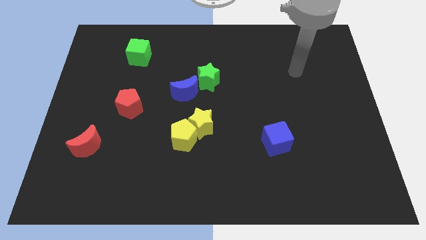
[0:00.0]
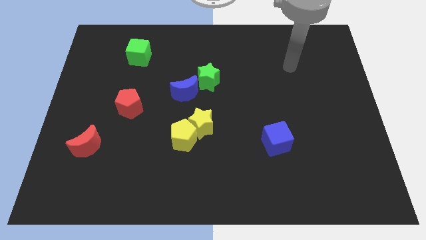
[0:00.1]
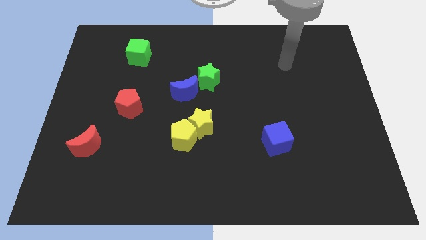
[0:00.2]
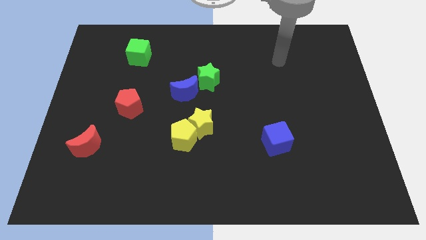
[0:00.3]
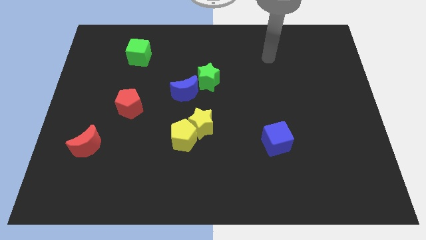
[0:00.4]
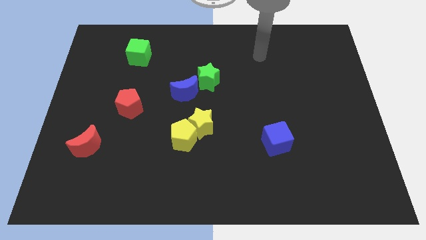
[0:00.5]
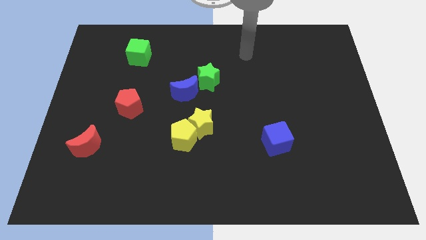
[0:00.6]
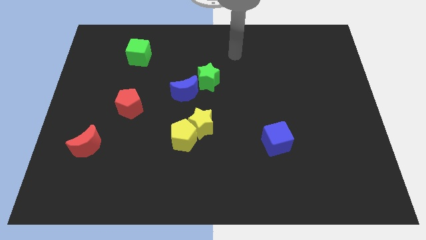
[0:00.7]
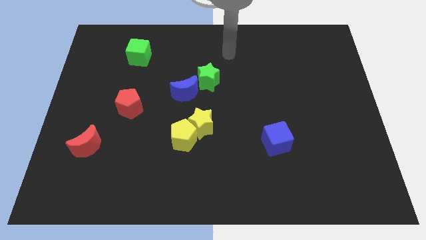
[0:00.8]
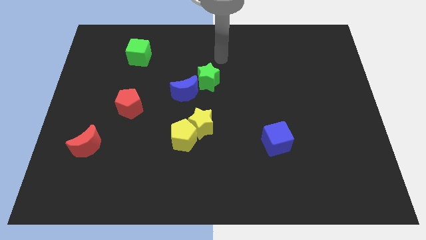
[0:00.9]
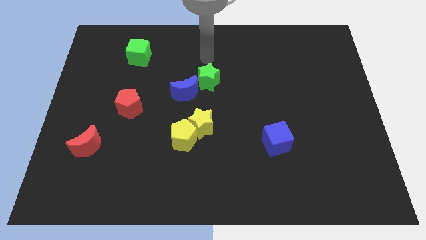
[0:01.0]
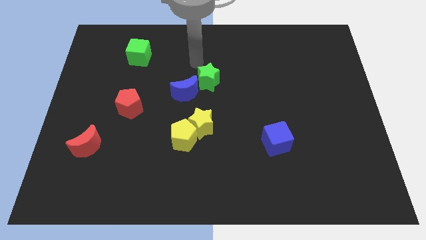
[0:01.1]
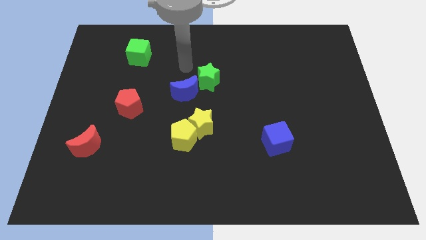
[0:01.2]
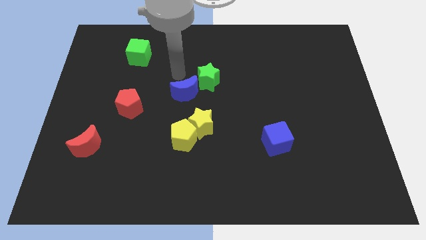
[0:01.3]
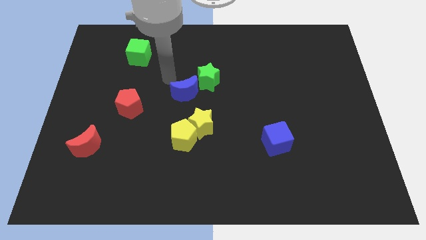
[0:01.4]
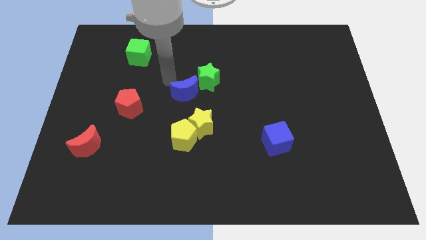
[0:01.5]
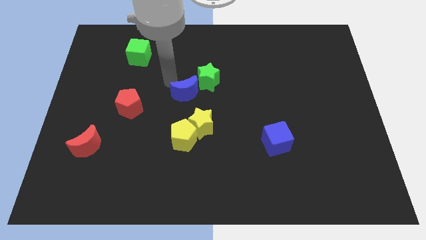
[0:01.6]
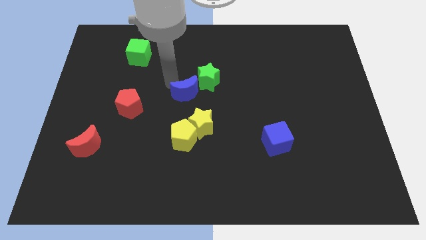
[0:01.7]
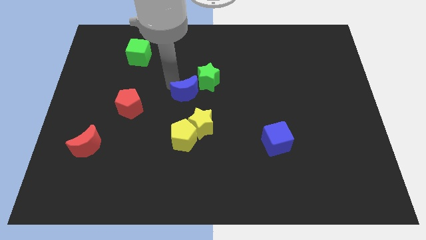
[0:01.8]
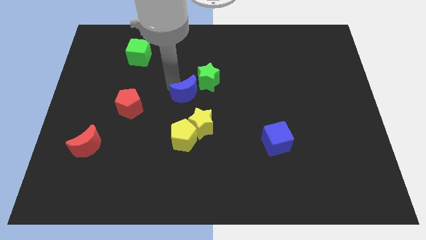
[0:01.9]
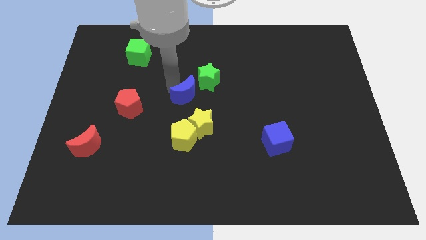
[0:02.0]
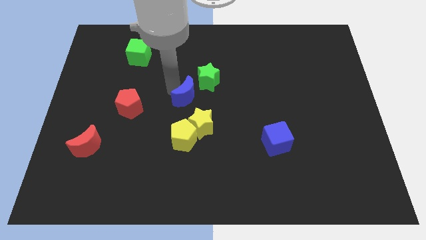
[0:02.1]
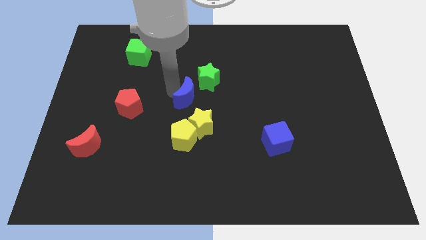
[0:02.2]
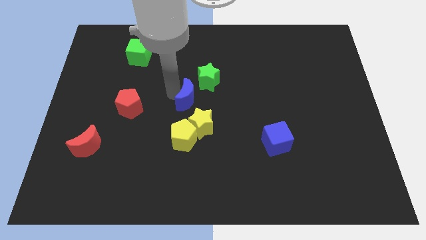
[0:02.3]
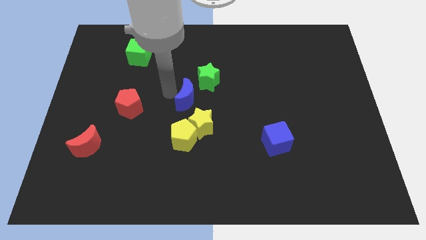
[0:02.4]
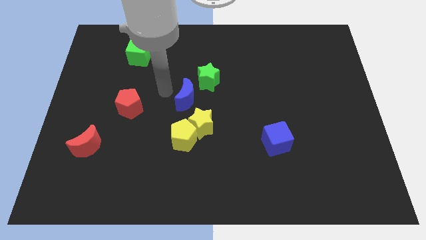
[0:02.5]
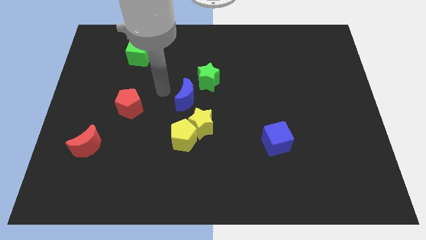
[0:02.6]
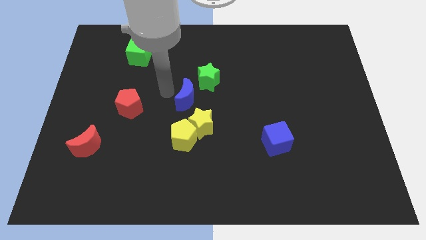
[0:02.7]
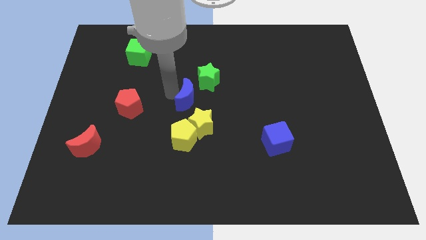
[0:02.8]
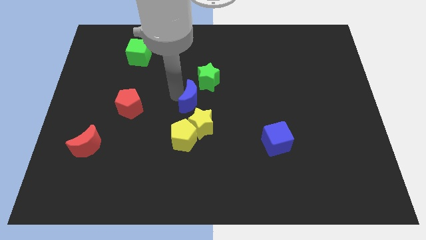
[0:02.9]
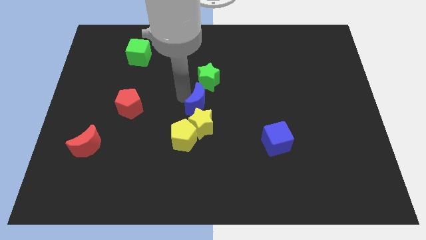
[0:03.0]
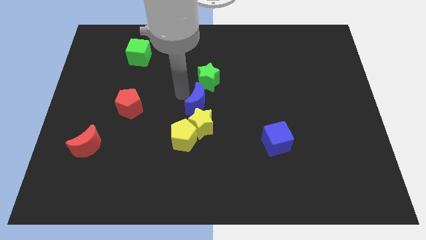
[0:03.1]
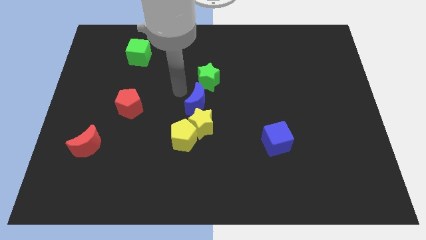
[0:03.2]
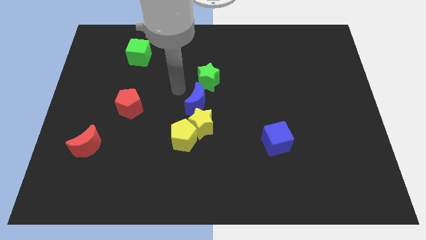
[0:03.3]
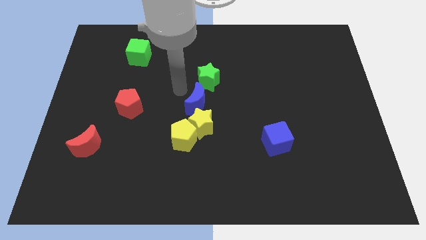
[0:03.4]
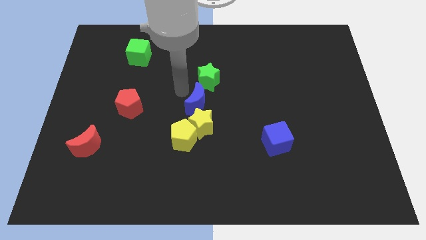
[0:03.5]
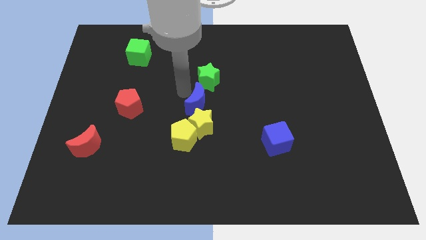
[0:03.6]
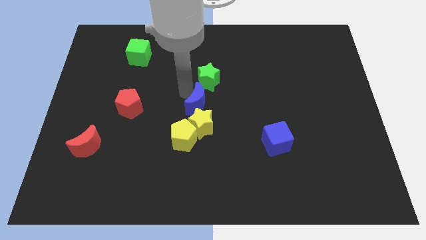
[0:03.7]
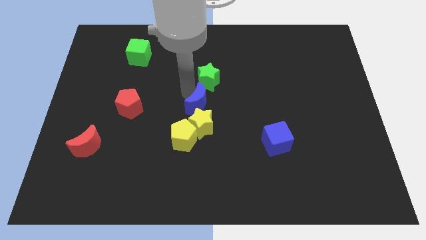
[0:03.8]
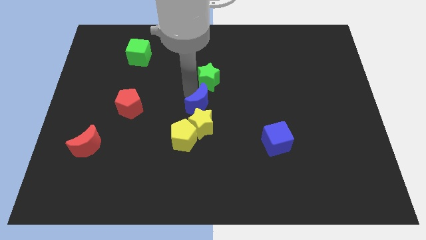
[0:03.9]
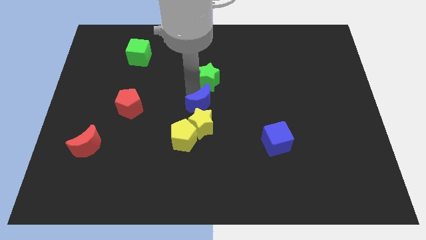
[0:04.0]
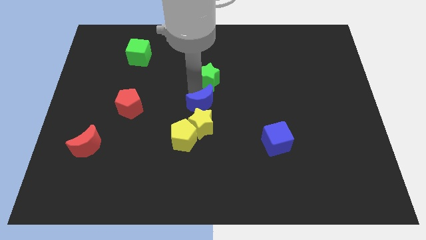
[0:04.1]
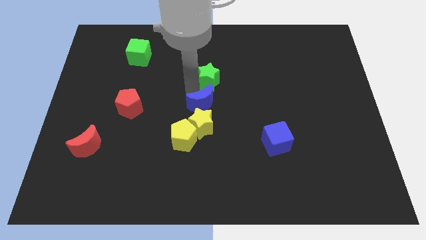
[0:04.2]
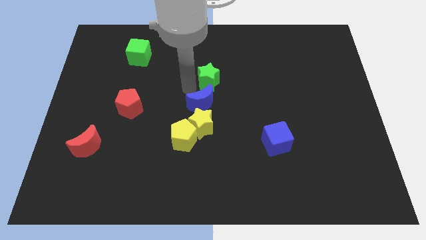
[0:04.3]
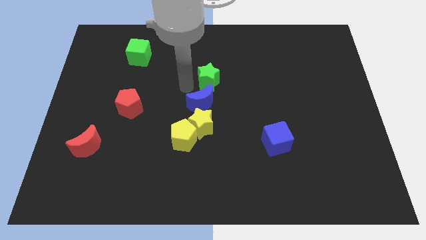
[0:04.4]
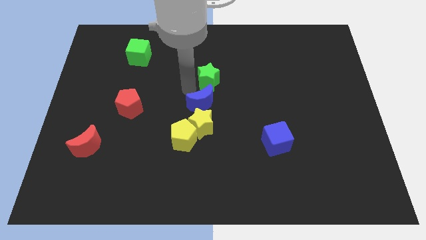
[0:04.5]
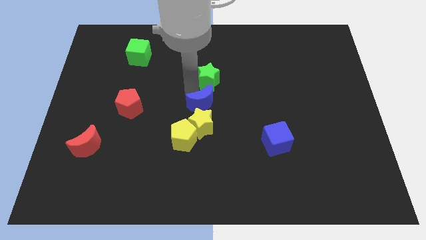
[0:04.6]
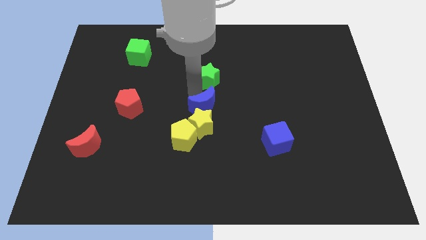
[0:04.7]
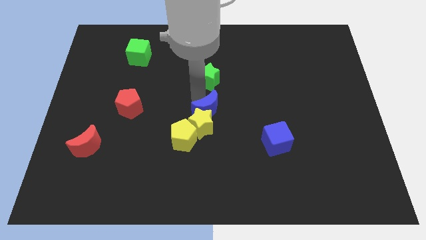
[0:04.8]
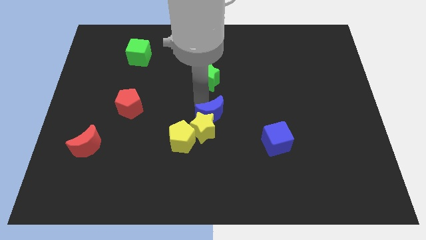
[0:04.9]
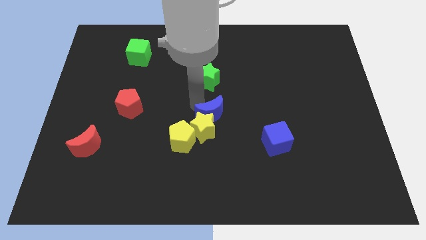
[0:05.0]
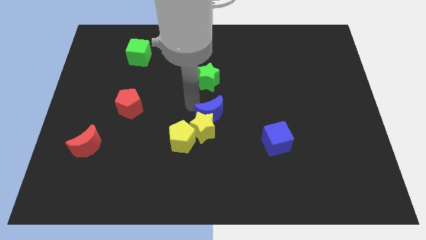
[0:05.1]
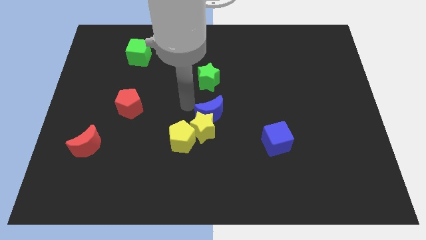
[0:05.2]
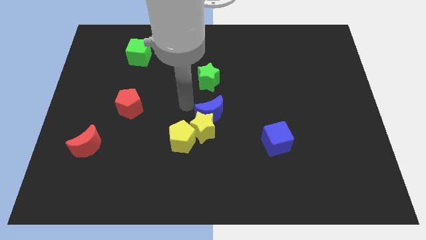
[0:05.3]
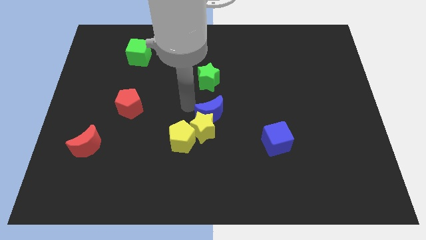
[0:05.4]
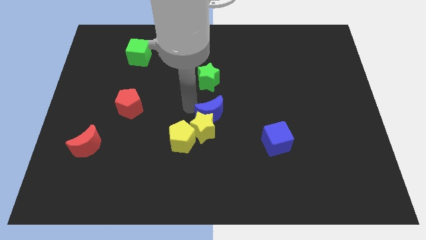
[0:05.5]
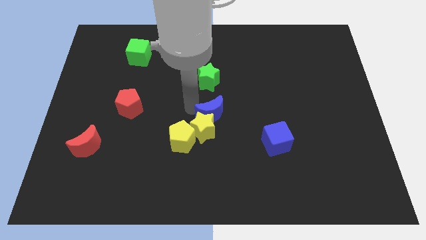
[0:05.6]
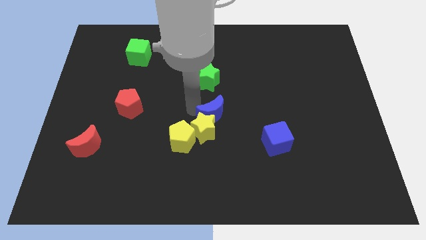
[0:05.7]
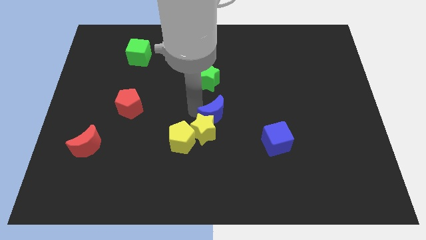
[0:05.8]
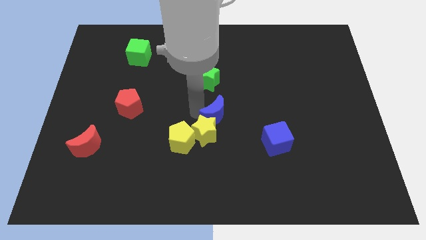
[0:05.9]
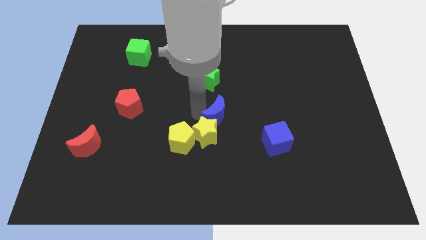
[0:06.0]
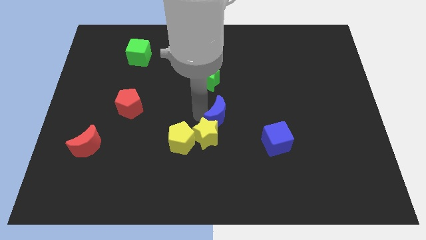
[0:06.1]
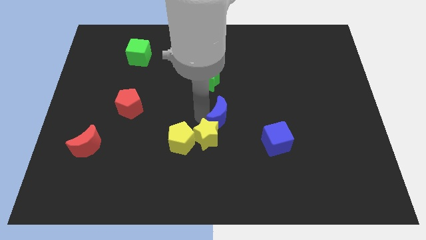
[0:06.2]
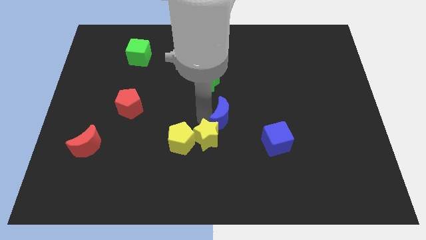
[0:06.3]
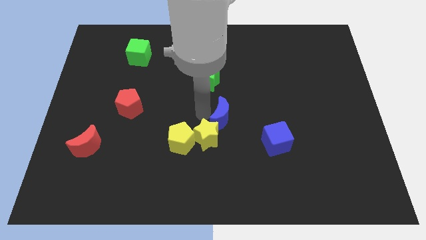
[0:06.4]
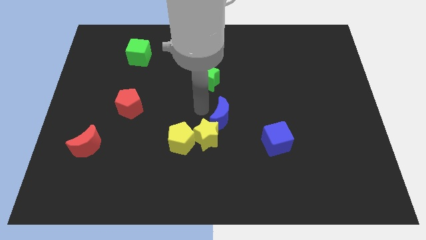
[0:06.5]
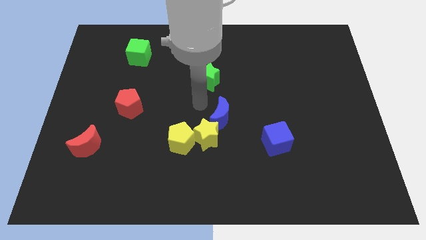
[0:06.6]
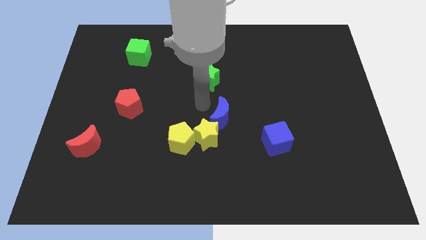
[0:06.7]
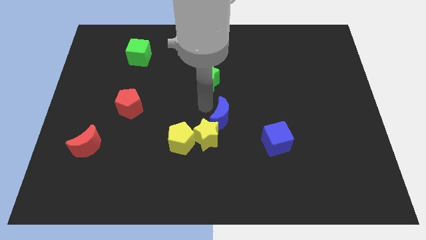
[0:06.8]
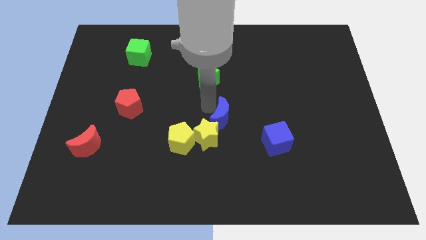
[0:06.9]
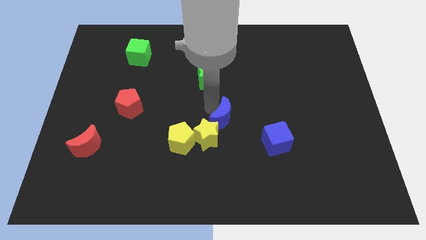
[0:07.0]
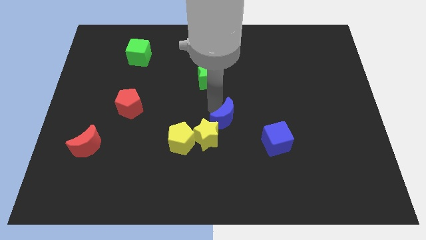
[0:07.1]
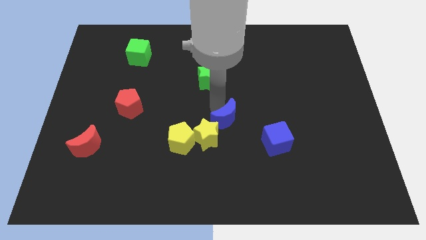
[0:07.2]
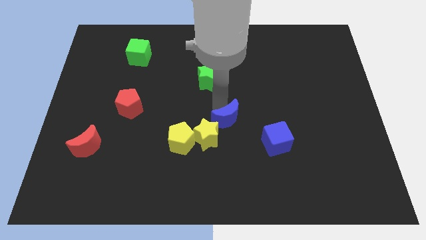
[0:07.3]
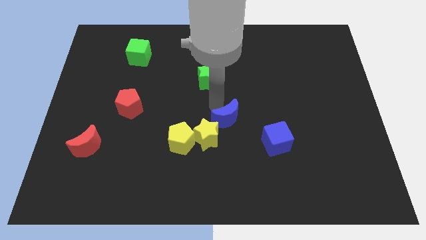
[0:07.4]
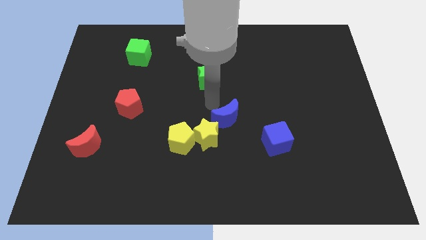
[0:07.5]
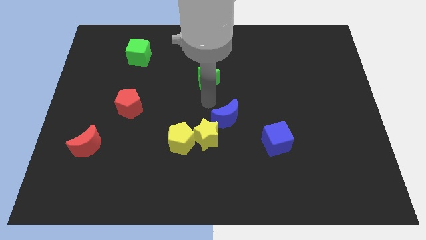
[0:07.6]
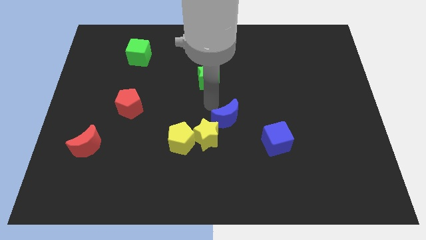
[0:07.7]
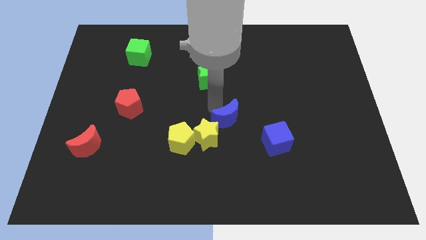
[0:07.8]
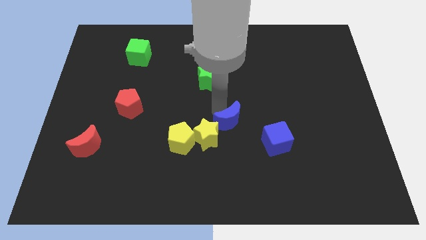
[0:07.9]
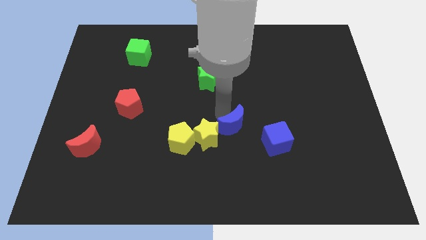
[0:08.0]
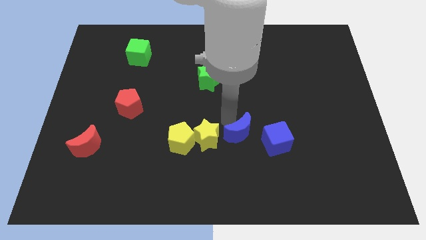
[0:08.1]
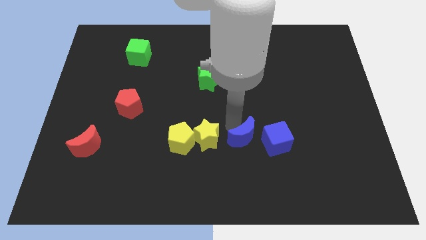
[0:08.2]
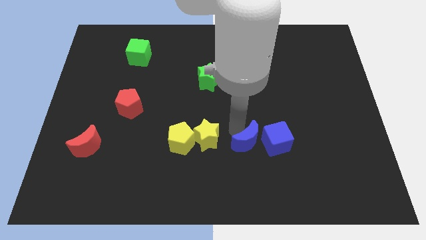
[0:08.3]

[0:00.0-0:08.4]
push the blue moon diagonally downwards and right
